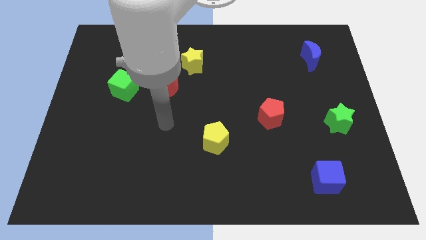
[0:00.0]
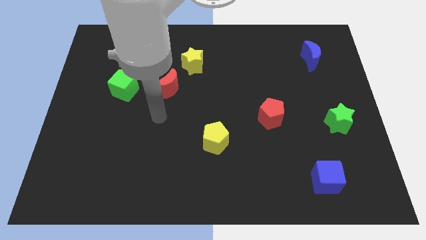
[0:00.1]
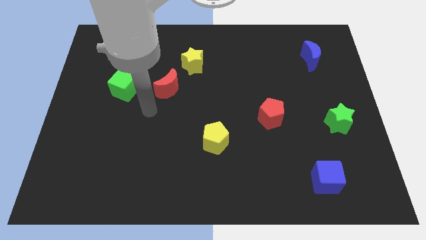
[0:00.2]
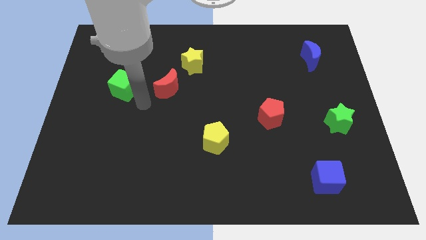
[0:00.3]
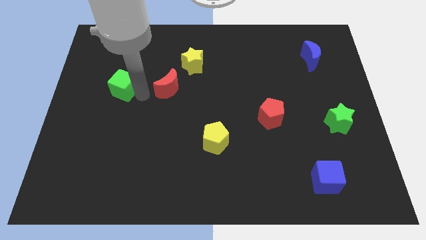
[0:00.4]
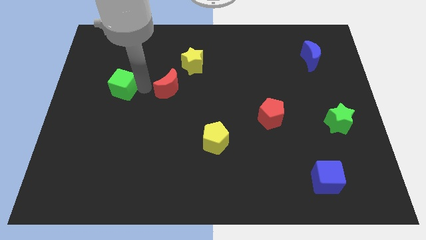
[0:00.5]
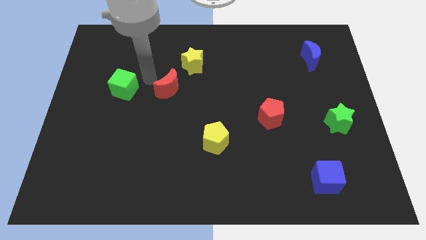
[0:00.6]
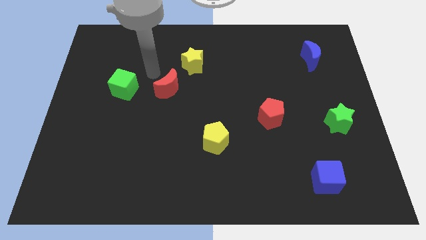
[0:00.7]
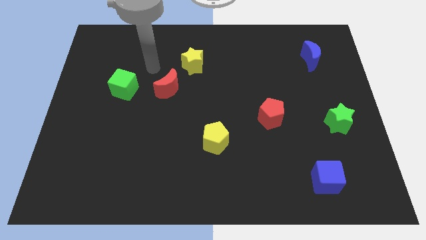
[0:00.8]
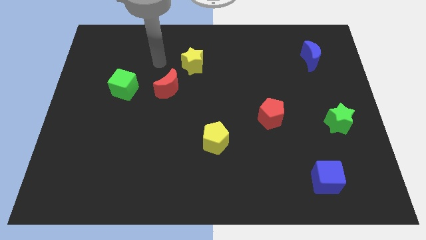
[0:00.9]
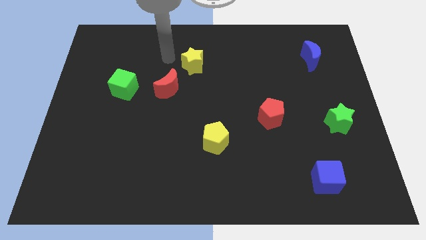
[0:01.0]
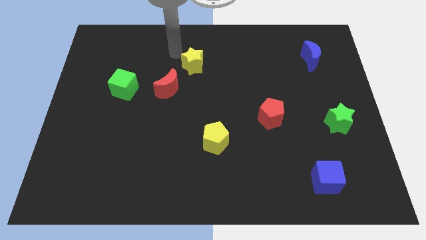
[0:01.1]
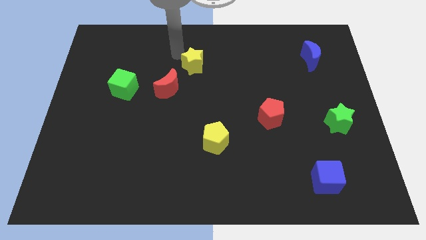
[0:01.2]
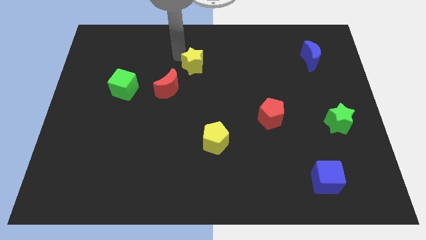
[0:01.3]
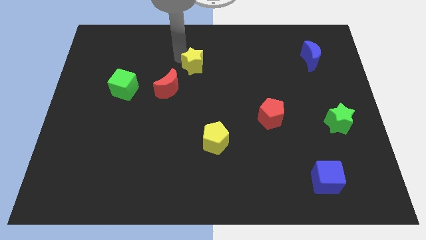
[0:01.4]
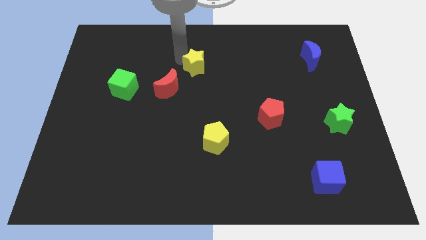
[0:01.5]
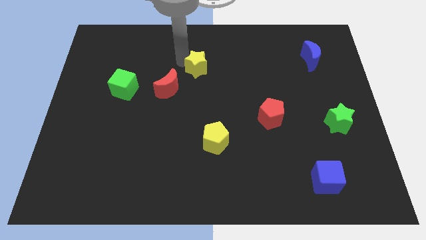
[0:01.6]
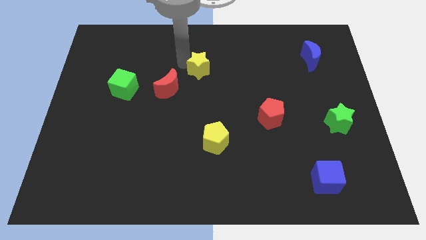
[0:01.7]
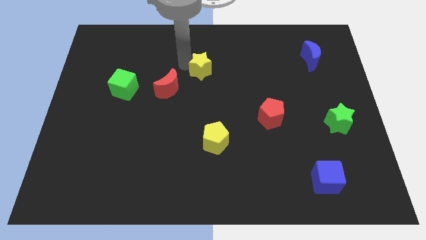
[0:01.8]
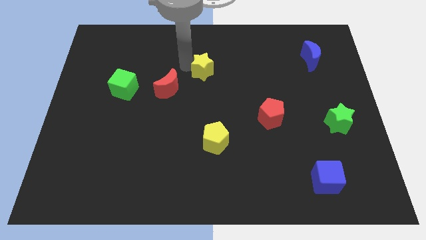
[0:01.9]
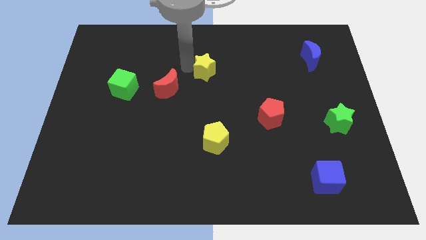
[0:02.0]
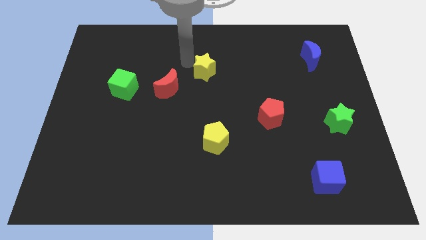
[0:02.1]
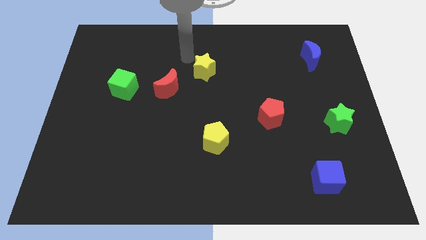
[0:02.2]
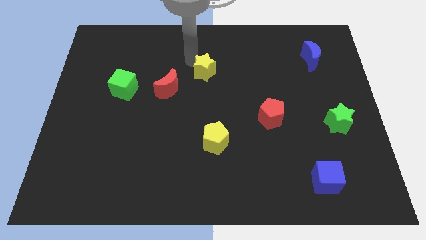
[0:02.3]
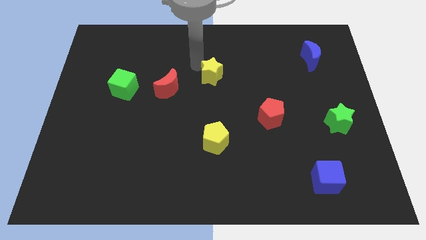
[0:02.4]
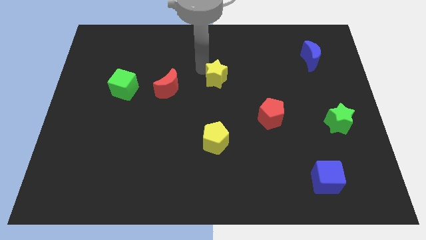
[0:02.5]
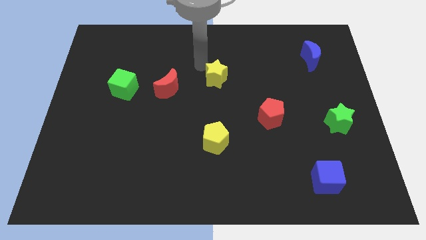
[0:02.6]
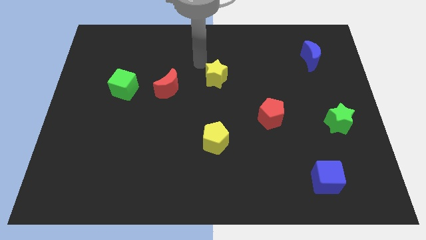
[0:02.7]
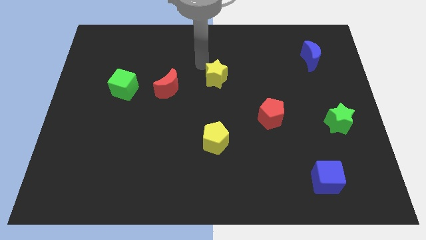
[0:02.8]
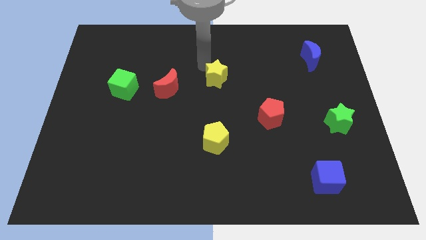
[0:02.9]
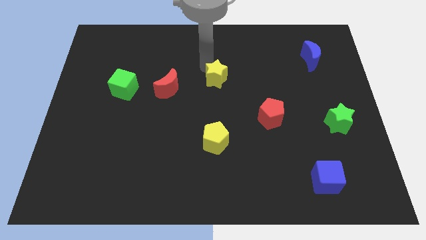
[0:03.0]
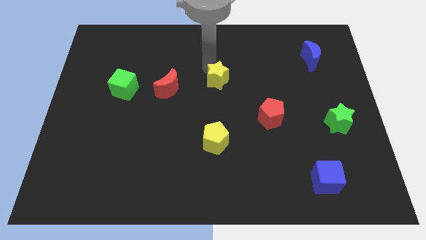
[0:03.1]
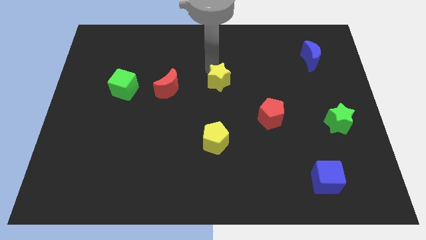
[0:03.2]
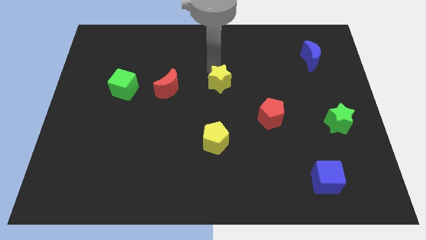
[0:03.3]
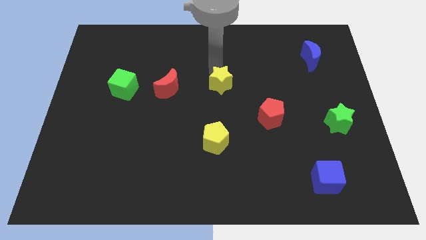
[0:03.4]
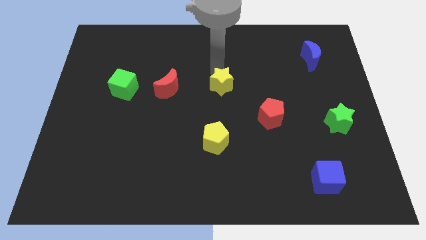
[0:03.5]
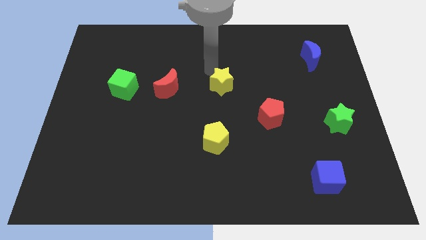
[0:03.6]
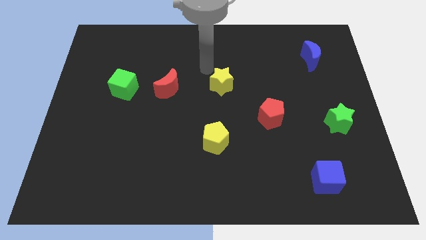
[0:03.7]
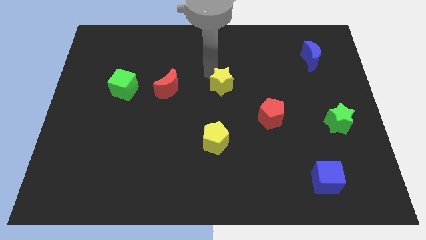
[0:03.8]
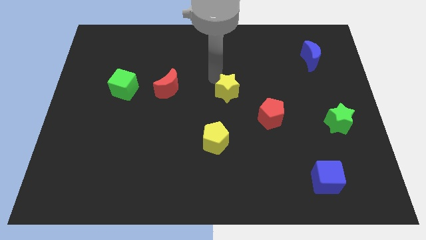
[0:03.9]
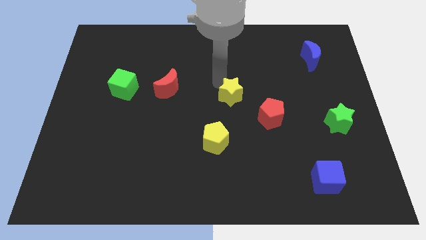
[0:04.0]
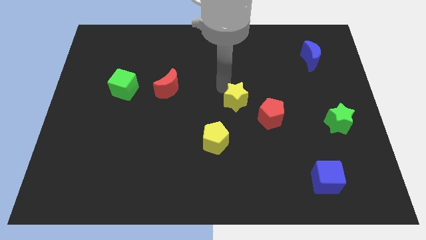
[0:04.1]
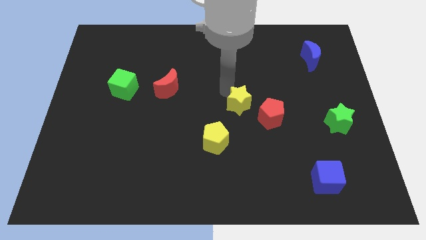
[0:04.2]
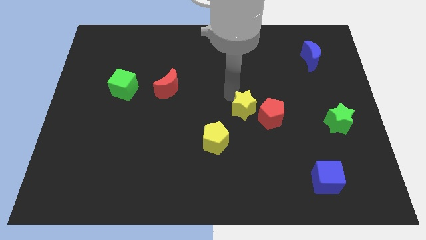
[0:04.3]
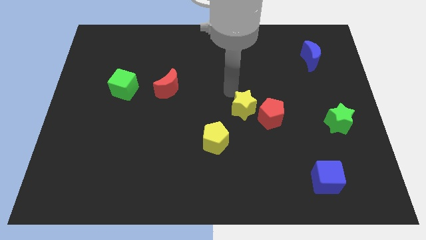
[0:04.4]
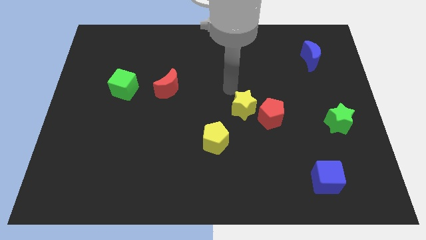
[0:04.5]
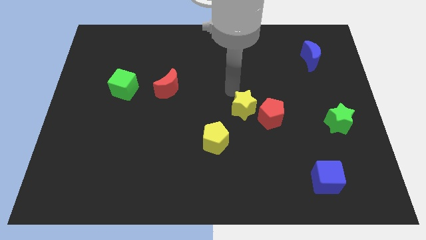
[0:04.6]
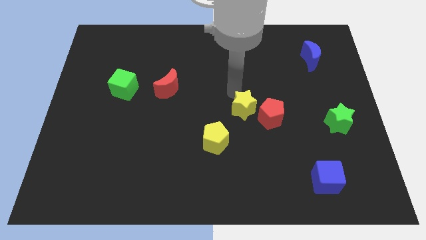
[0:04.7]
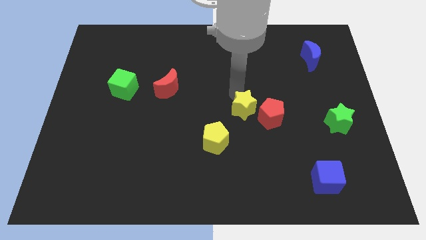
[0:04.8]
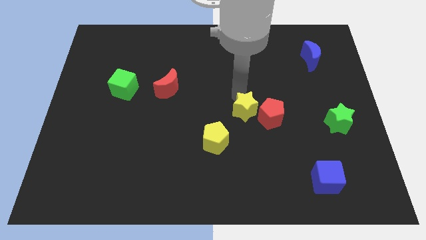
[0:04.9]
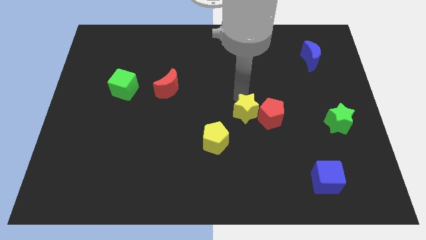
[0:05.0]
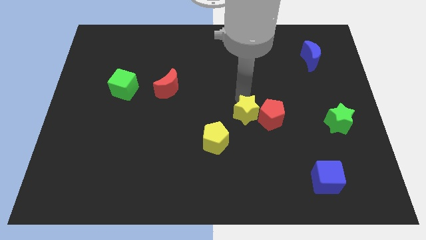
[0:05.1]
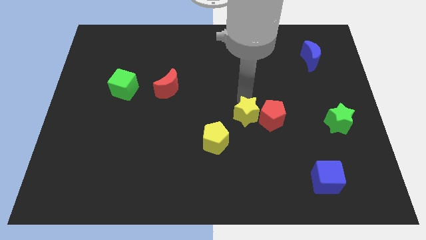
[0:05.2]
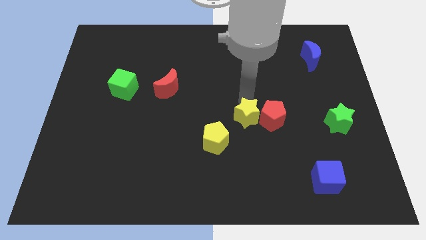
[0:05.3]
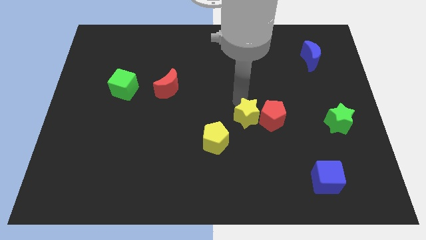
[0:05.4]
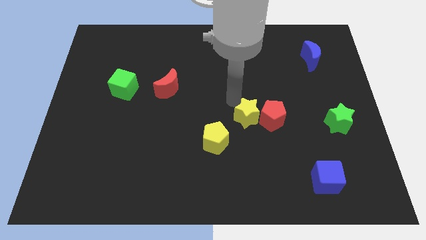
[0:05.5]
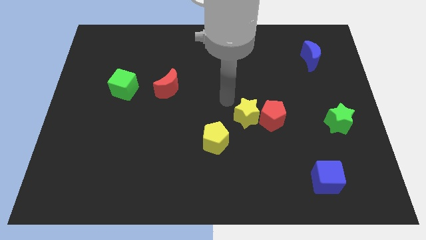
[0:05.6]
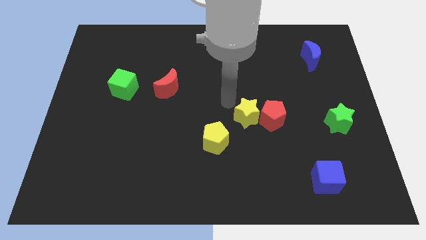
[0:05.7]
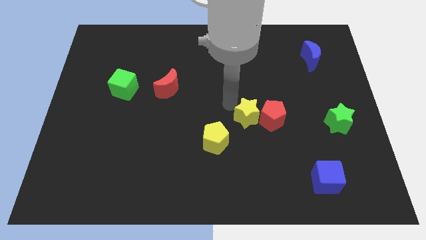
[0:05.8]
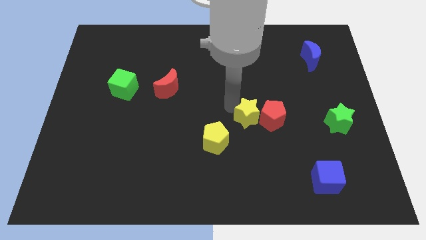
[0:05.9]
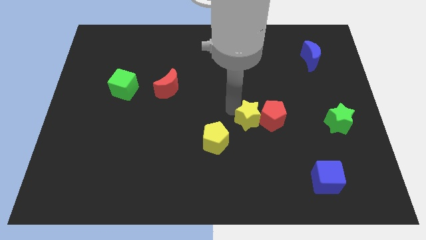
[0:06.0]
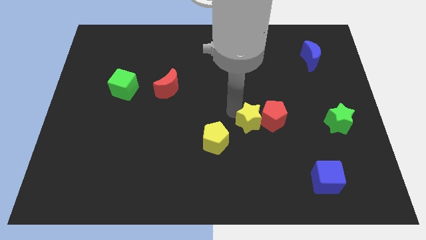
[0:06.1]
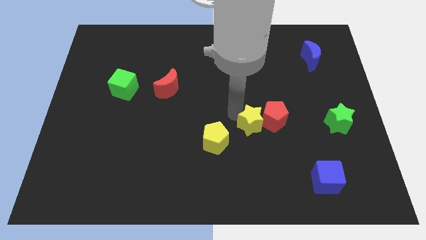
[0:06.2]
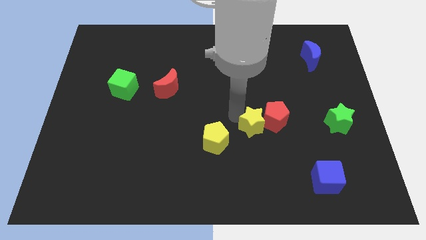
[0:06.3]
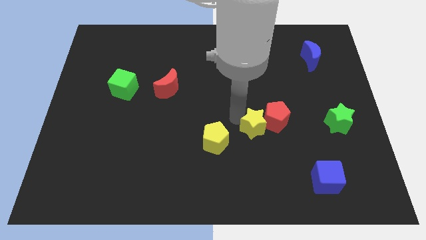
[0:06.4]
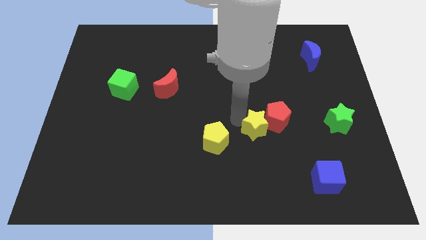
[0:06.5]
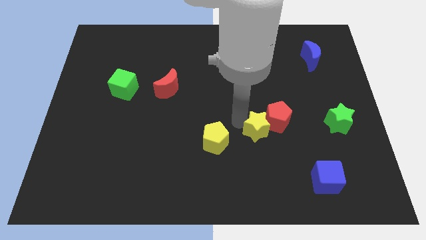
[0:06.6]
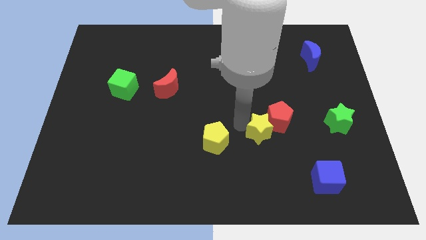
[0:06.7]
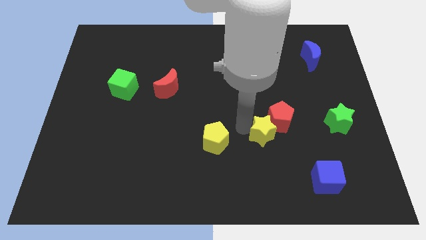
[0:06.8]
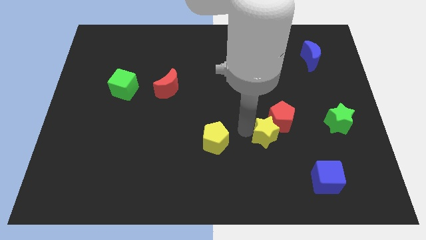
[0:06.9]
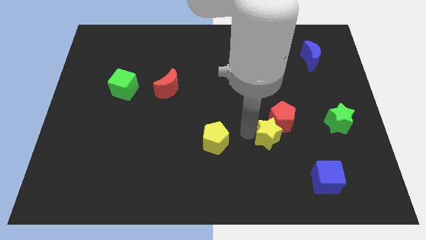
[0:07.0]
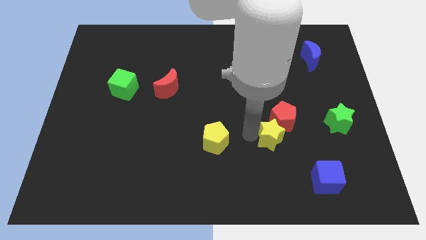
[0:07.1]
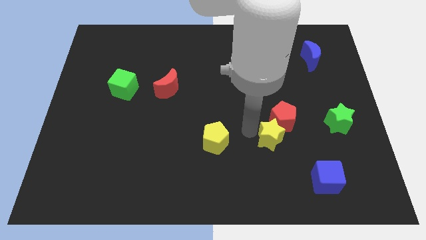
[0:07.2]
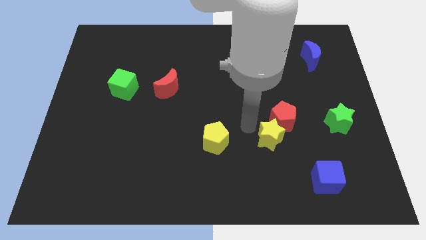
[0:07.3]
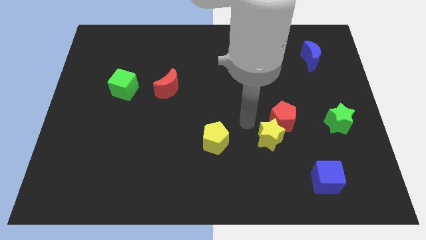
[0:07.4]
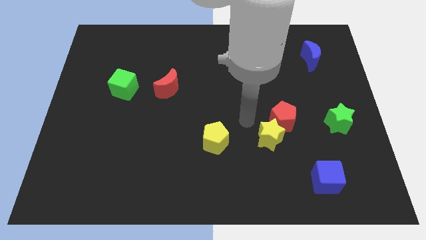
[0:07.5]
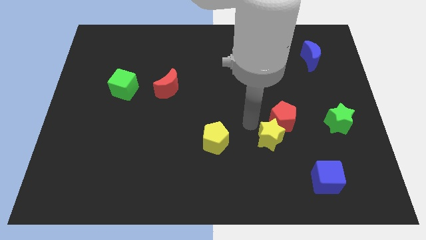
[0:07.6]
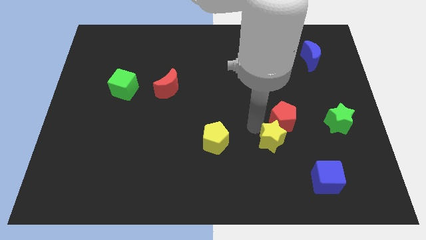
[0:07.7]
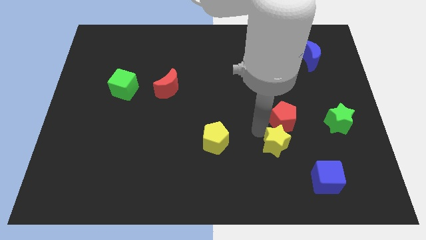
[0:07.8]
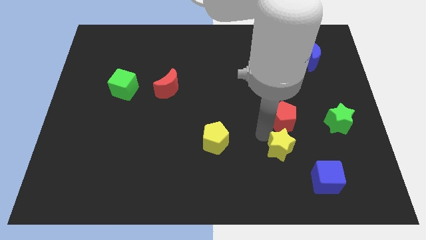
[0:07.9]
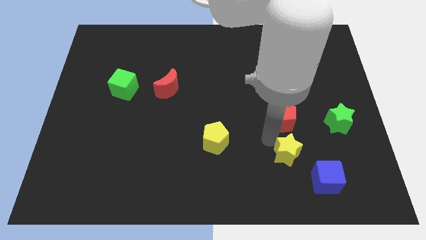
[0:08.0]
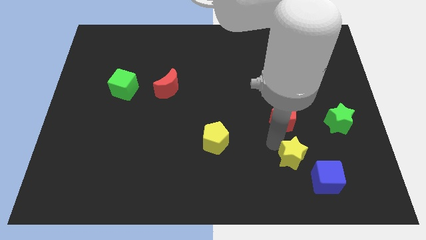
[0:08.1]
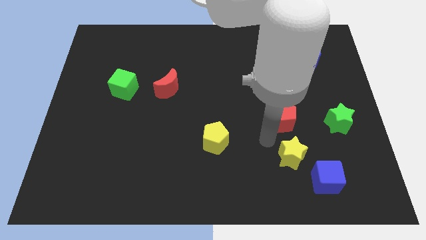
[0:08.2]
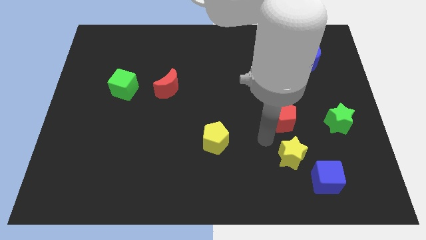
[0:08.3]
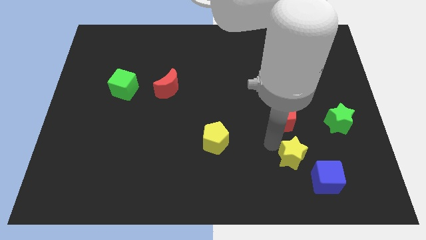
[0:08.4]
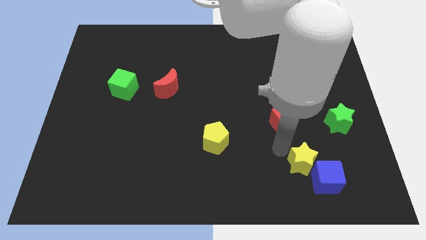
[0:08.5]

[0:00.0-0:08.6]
move the yellow star to the blue cube
